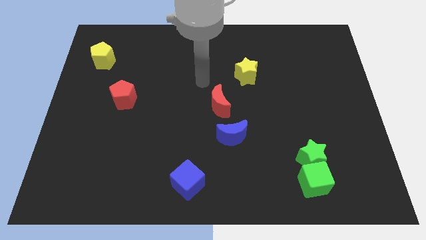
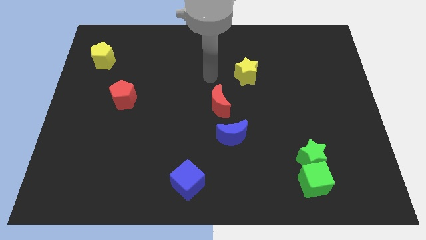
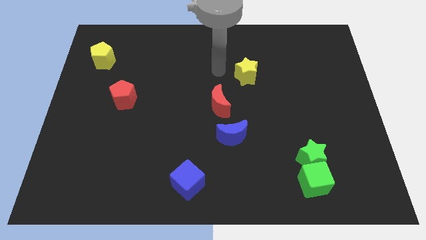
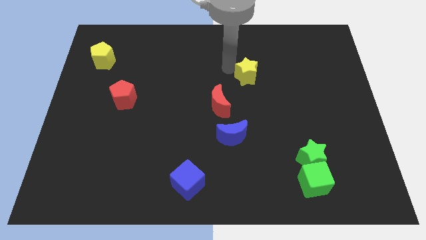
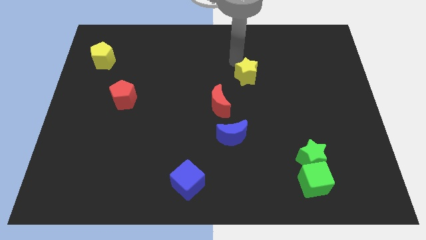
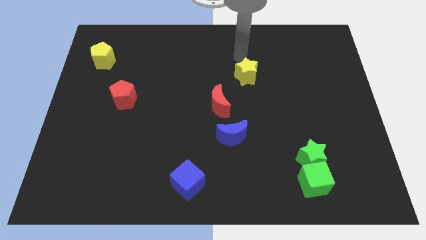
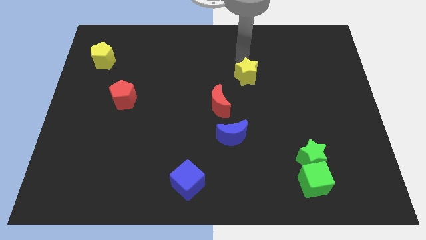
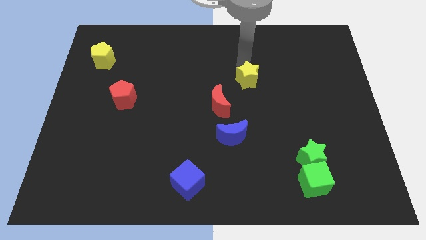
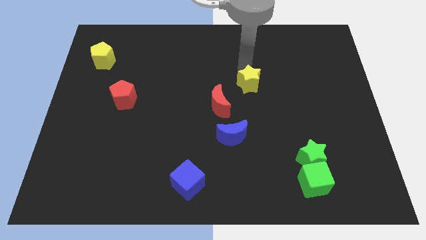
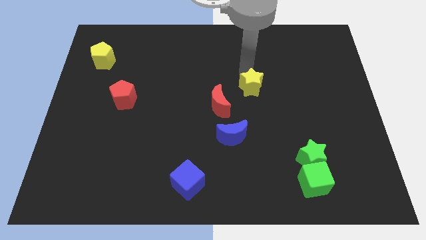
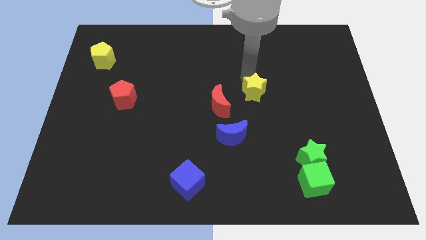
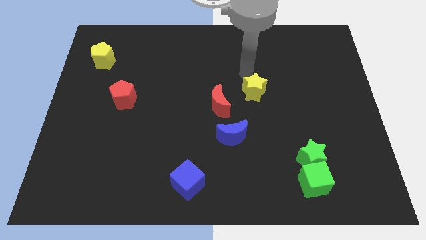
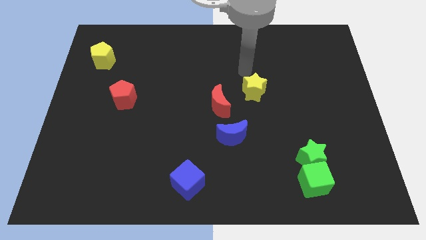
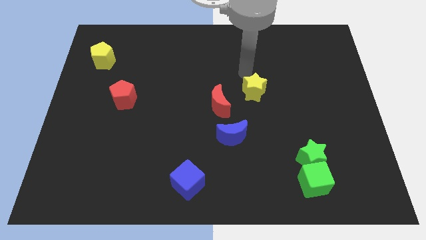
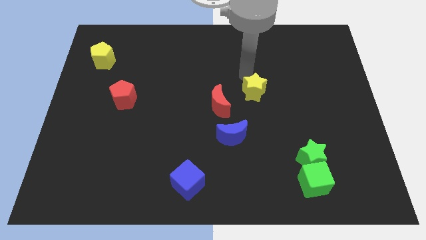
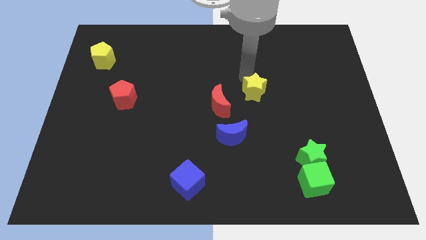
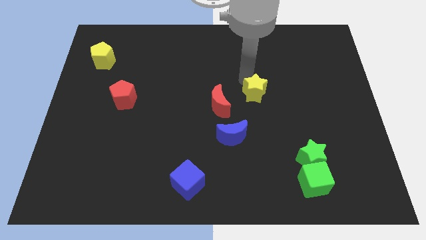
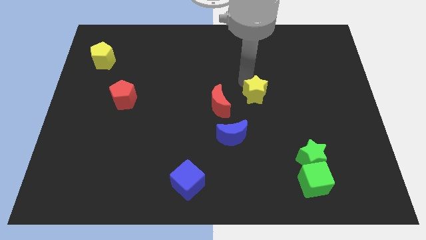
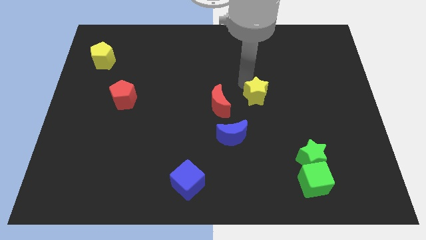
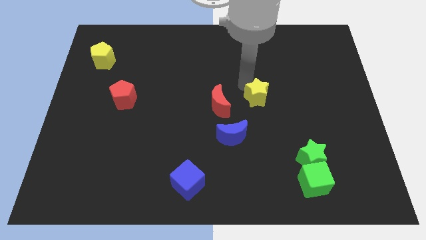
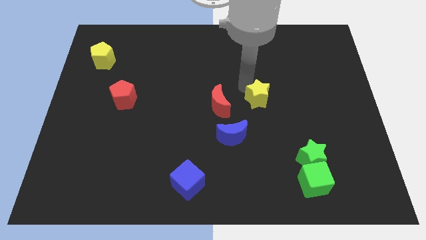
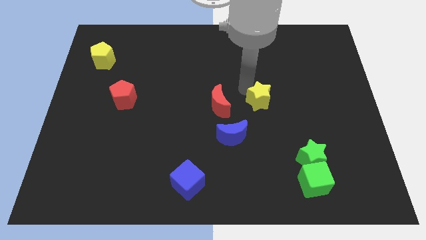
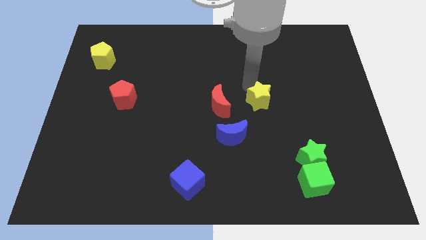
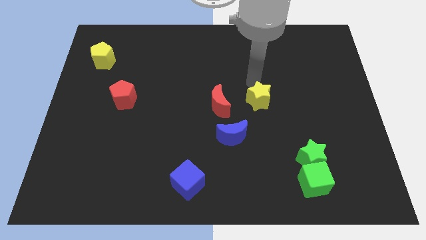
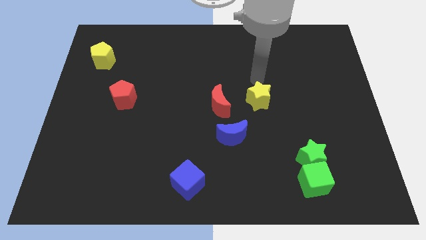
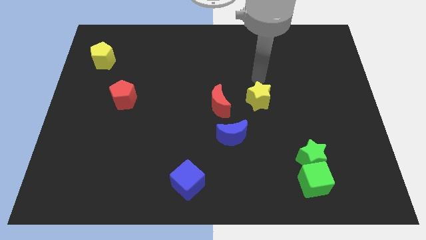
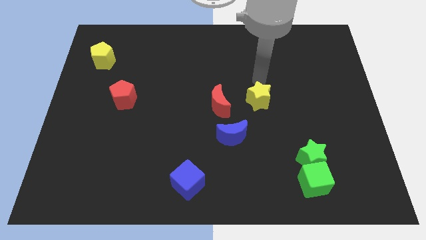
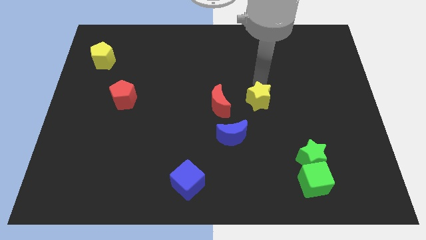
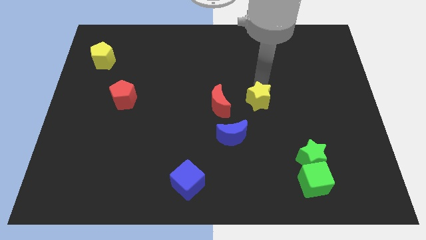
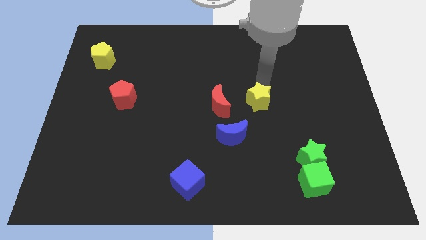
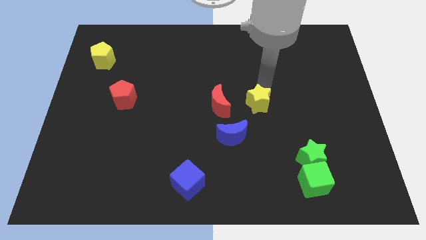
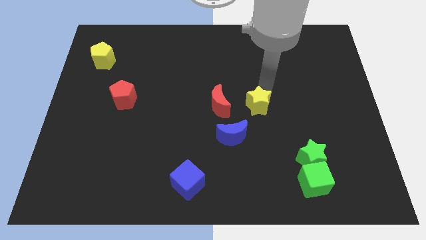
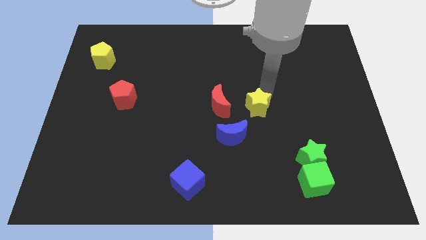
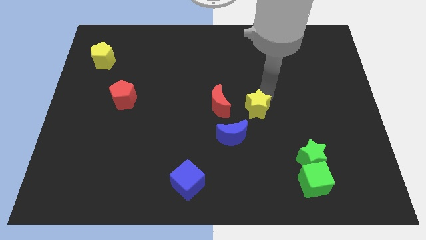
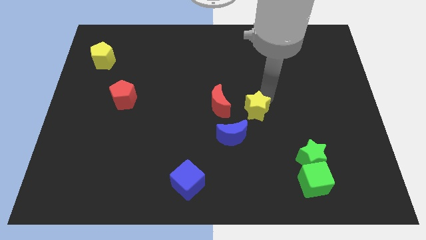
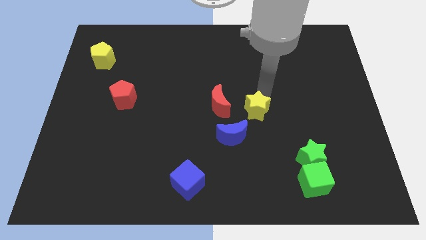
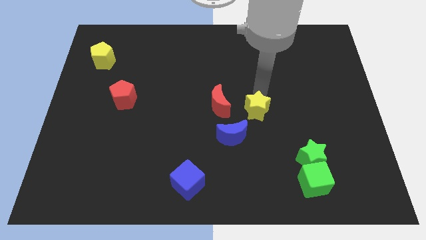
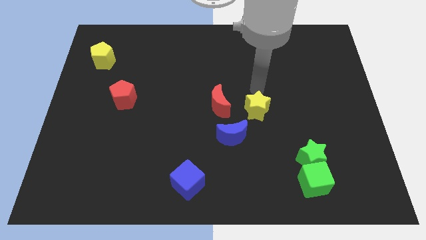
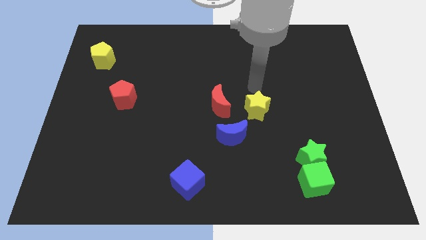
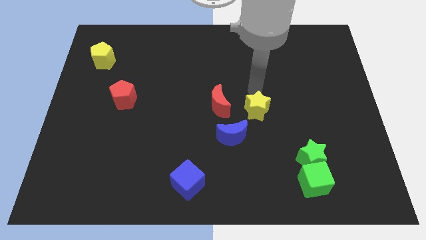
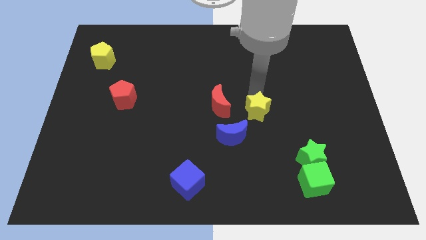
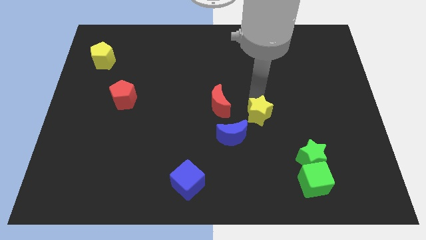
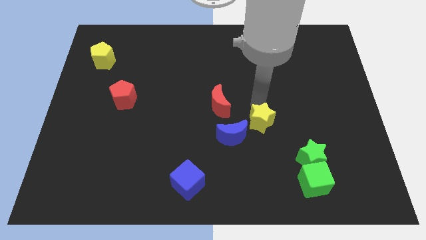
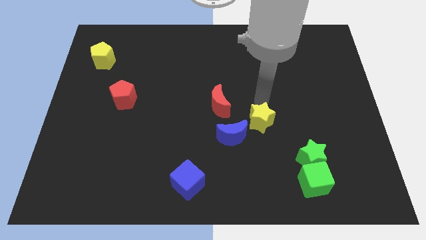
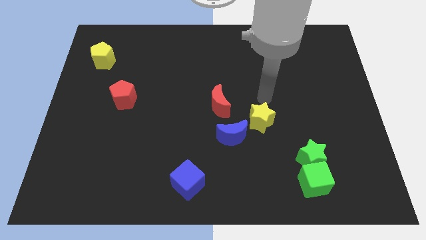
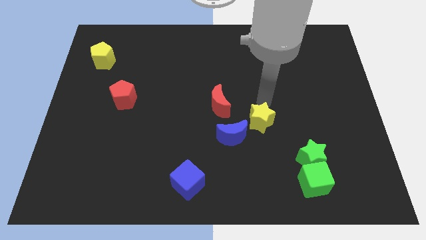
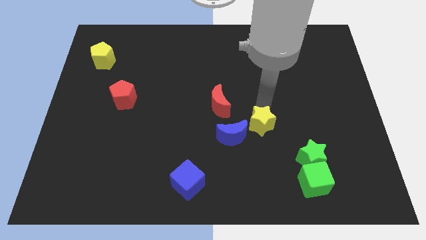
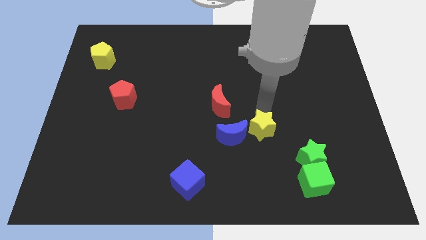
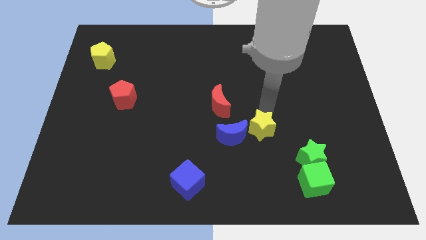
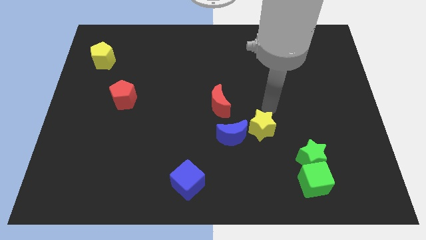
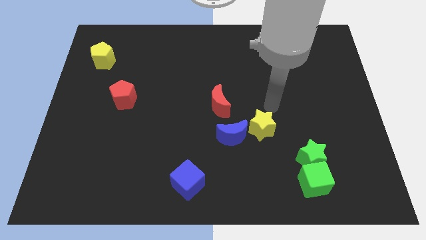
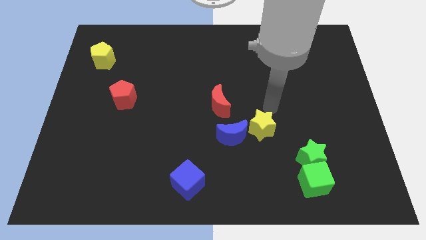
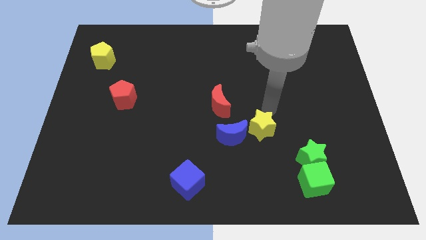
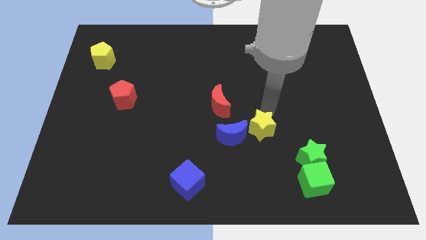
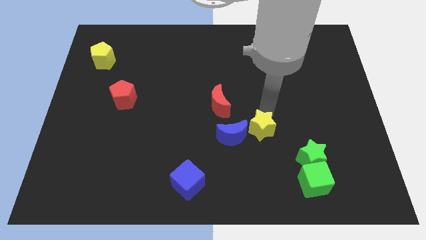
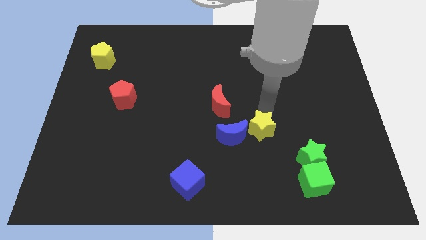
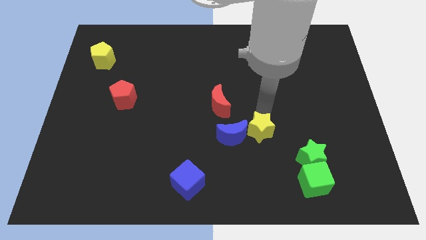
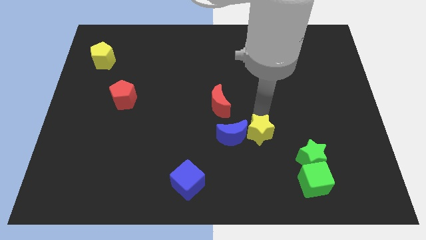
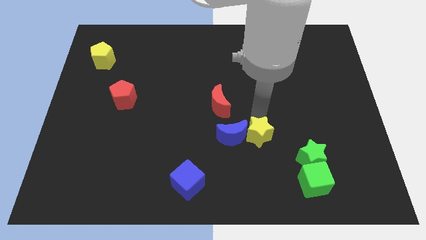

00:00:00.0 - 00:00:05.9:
move the yellow star diagonally down and to the right of the blue moon

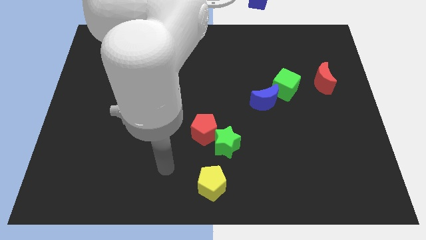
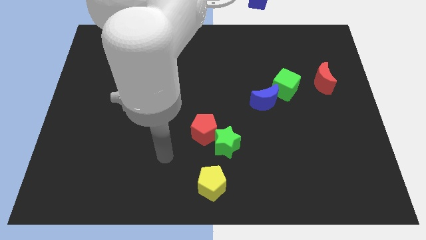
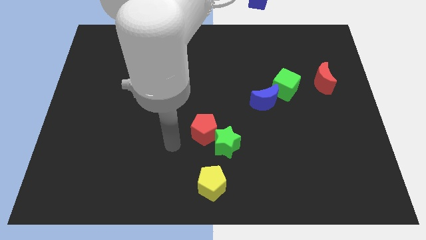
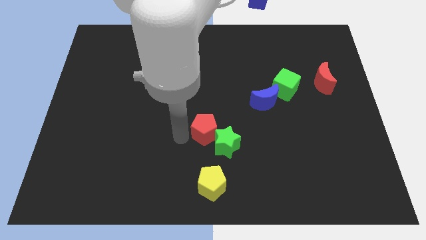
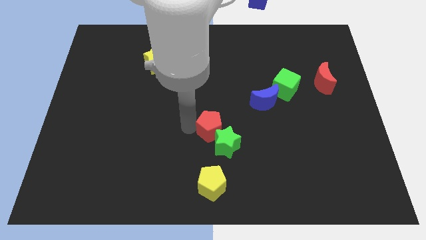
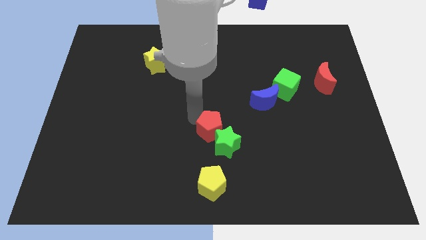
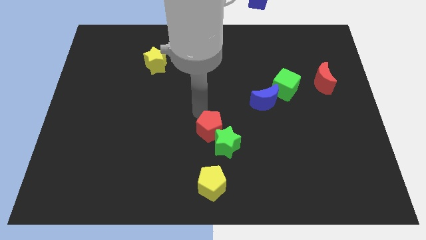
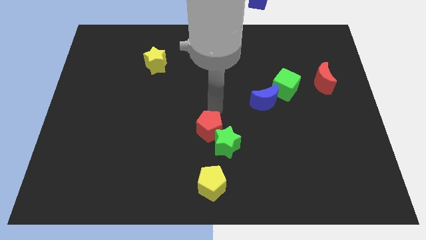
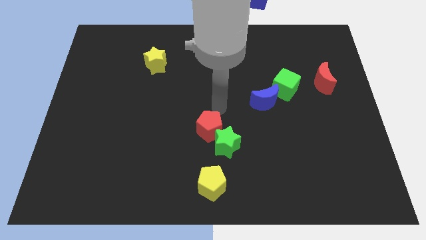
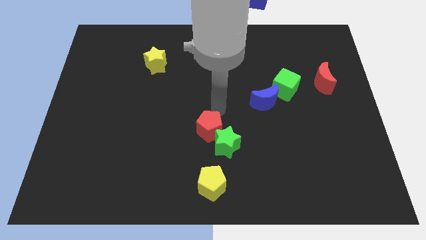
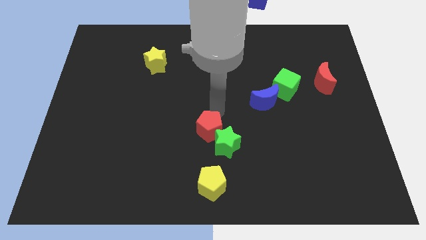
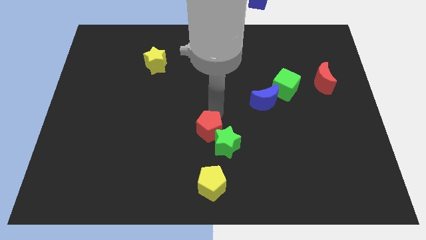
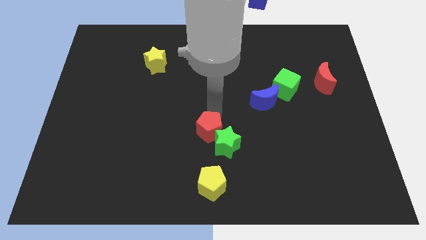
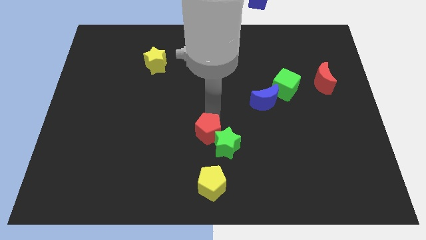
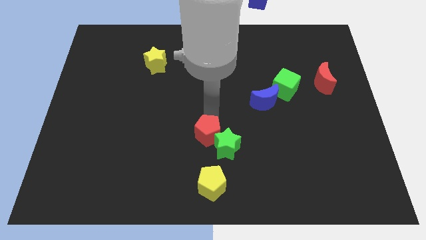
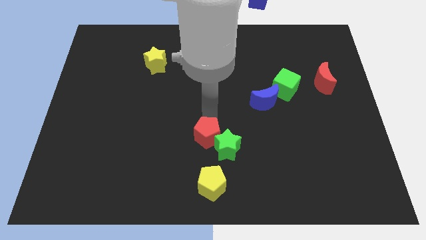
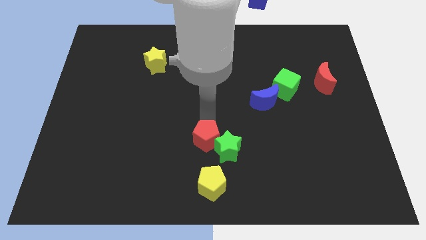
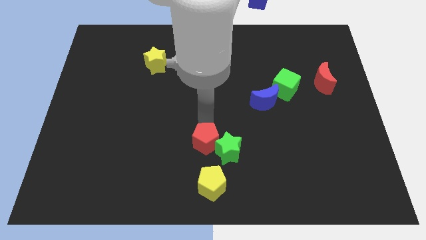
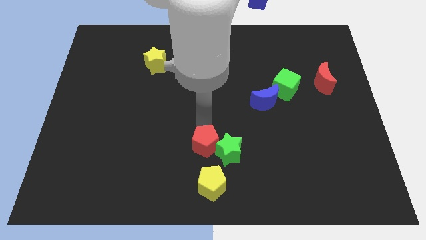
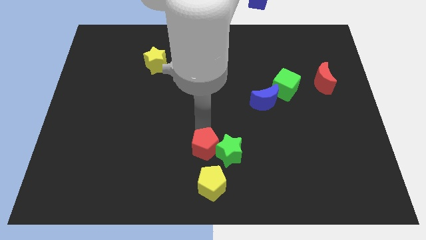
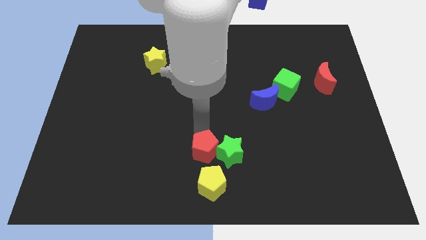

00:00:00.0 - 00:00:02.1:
put the red pentagon to the top left side of the yellow pentagon
